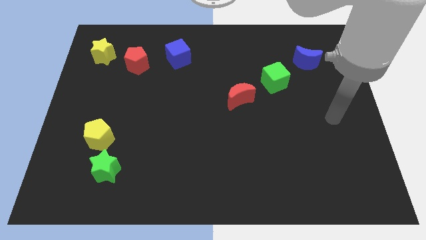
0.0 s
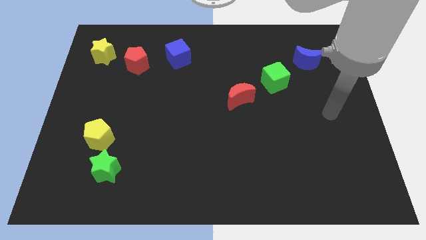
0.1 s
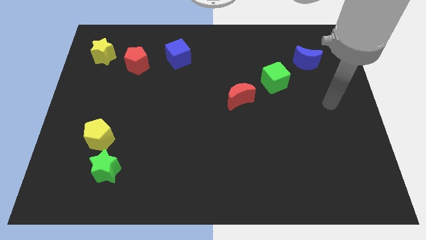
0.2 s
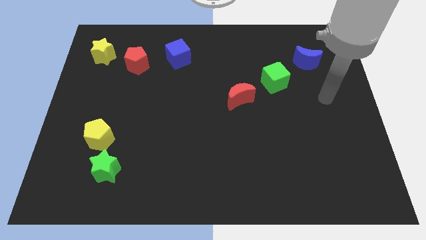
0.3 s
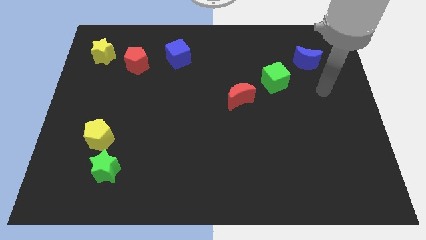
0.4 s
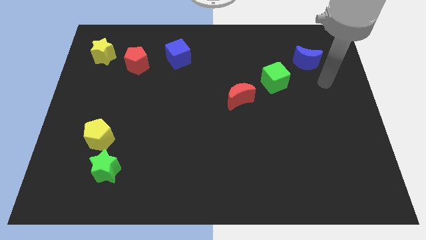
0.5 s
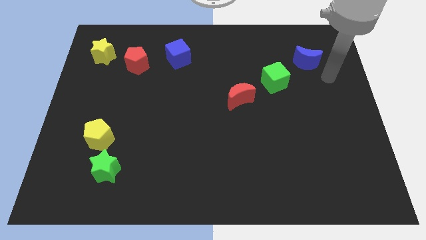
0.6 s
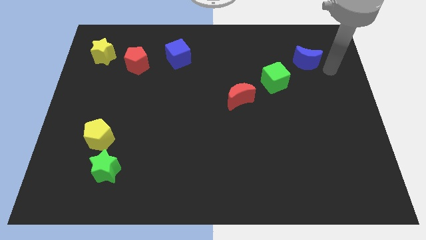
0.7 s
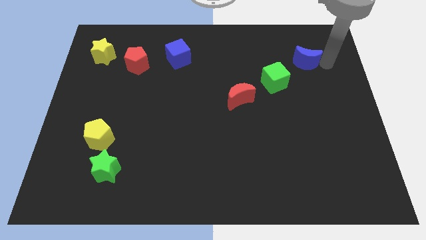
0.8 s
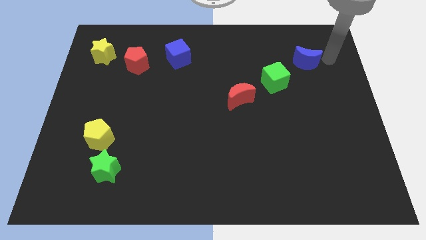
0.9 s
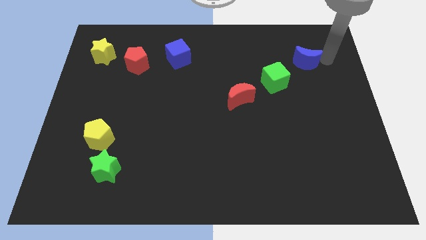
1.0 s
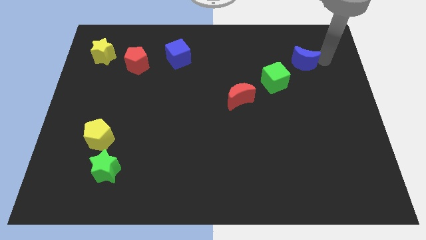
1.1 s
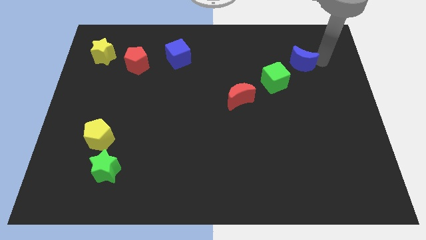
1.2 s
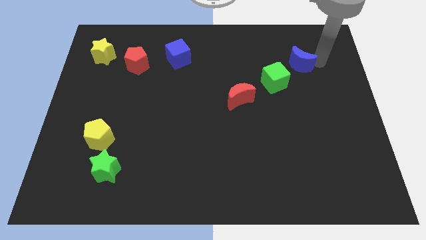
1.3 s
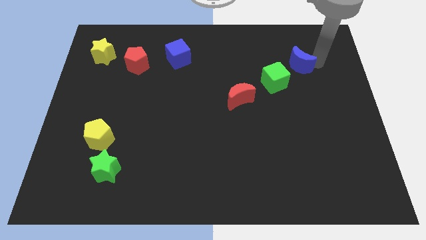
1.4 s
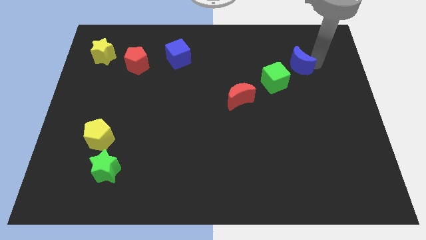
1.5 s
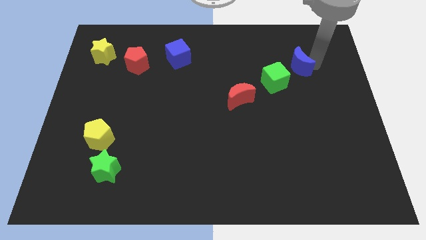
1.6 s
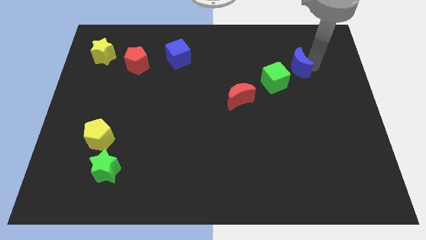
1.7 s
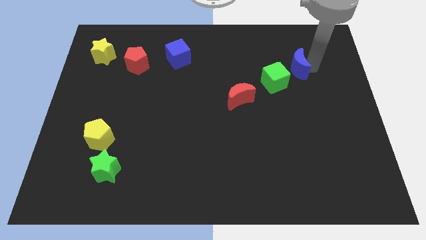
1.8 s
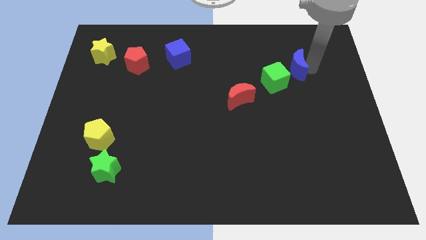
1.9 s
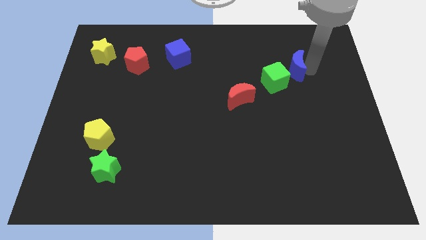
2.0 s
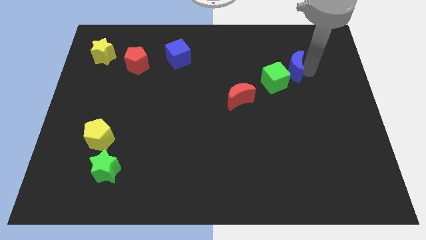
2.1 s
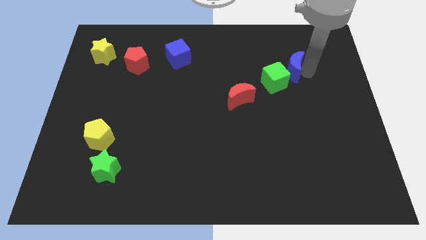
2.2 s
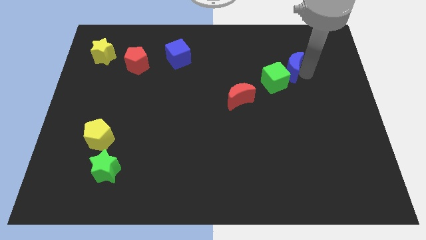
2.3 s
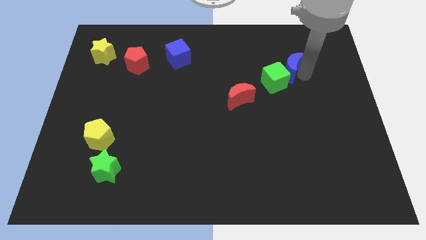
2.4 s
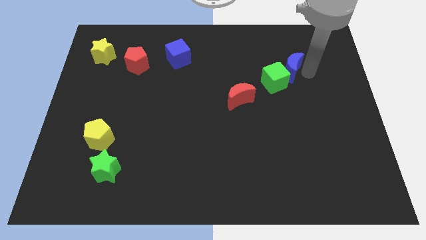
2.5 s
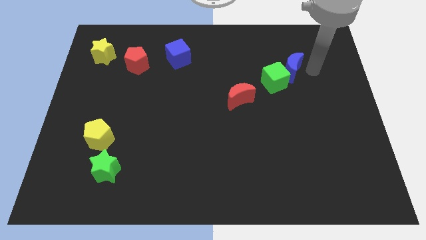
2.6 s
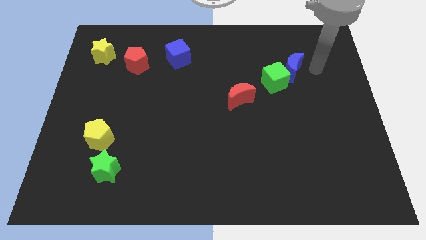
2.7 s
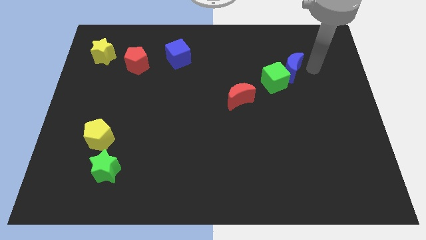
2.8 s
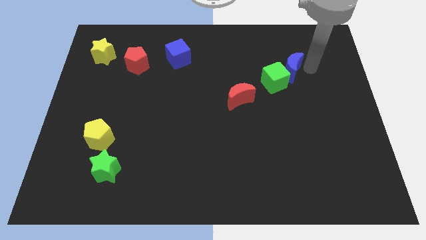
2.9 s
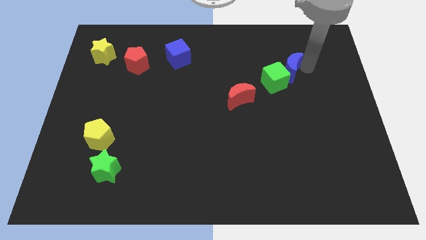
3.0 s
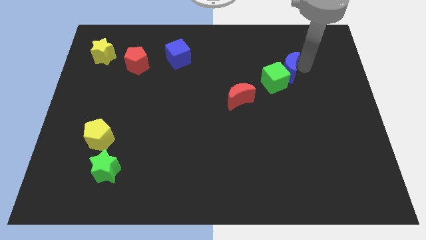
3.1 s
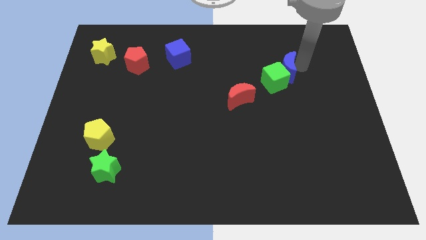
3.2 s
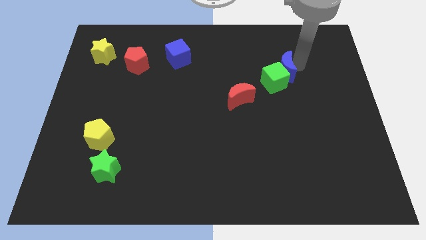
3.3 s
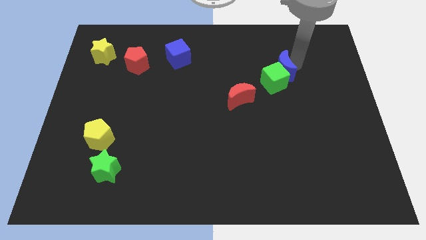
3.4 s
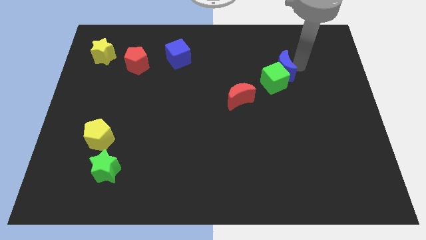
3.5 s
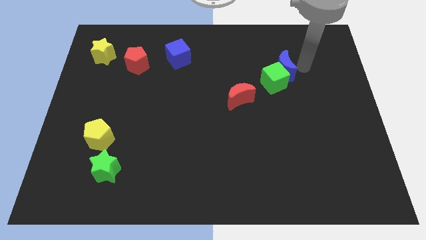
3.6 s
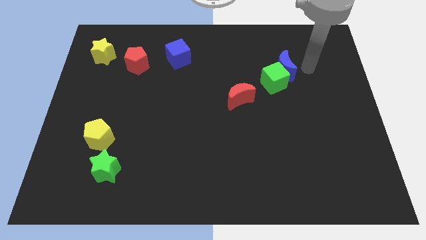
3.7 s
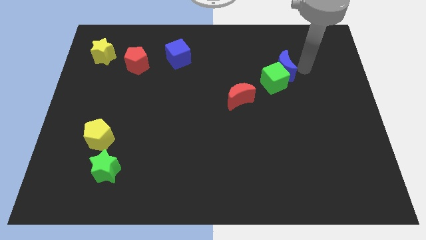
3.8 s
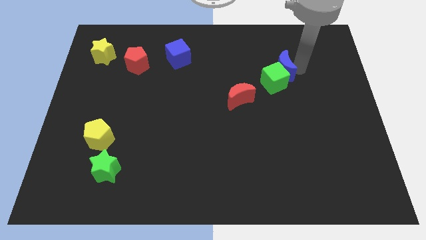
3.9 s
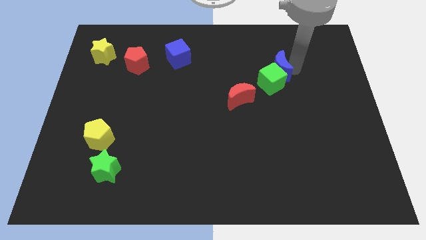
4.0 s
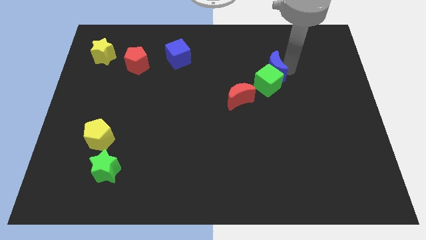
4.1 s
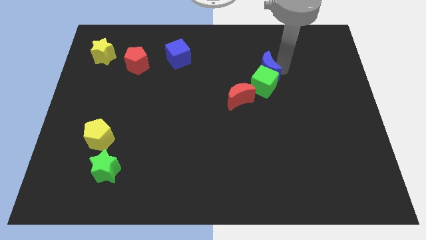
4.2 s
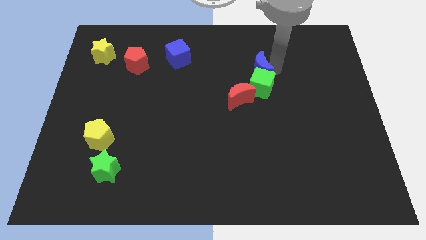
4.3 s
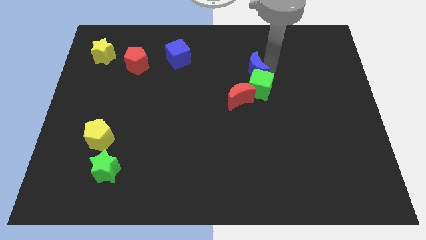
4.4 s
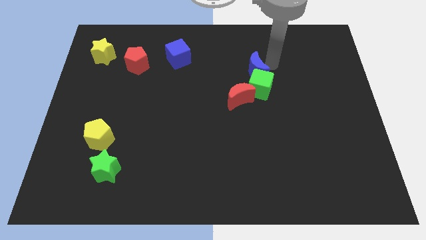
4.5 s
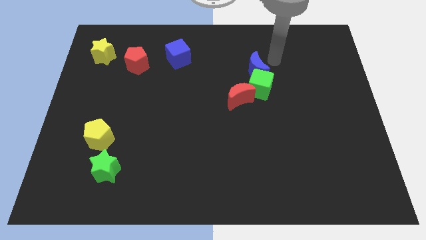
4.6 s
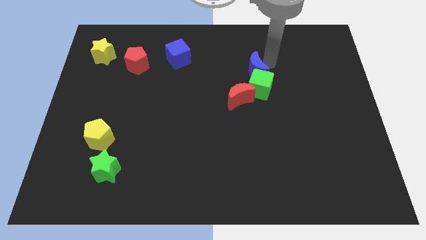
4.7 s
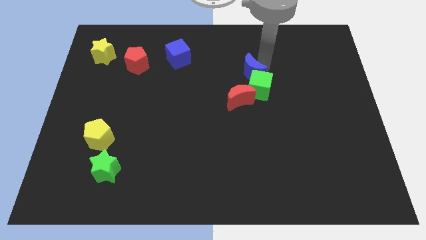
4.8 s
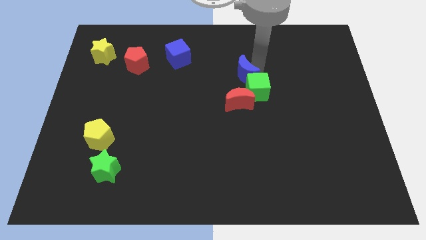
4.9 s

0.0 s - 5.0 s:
move the blue moon to the middle

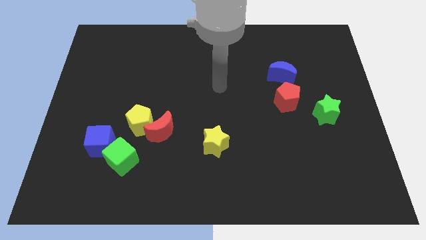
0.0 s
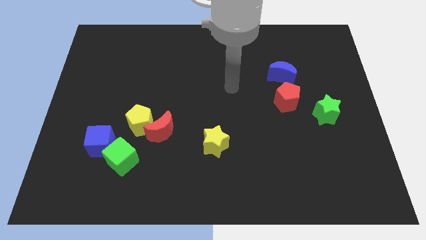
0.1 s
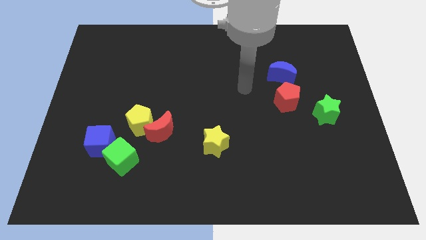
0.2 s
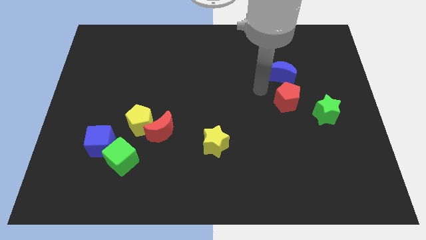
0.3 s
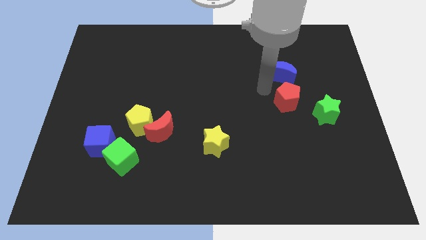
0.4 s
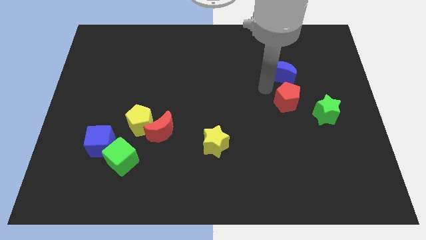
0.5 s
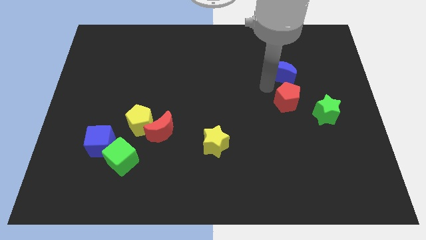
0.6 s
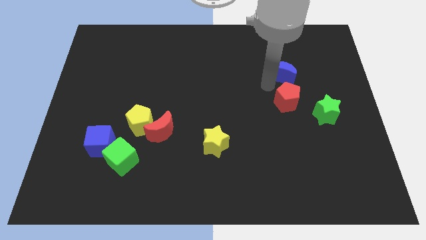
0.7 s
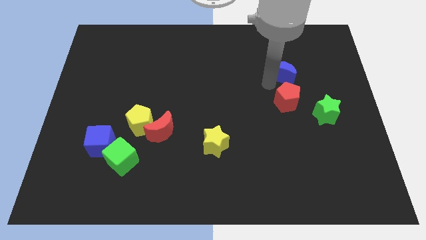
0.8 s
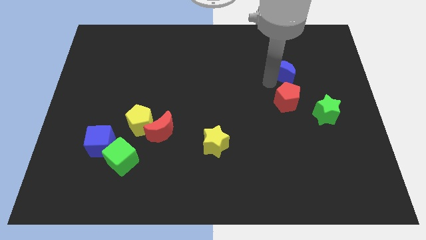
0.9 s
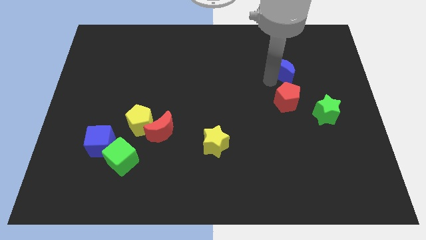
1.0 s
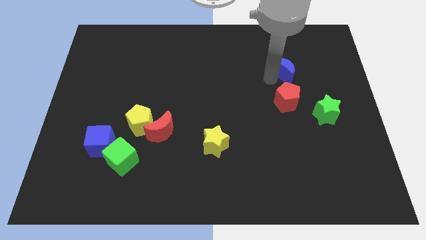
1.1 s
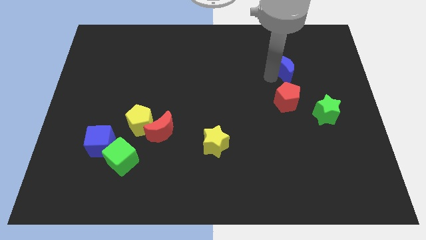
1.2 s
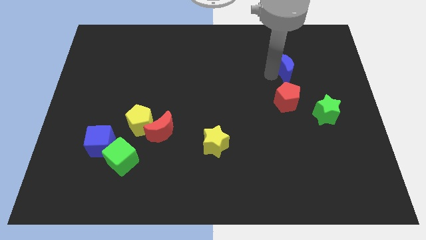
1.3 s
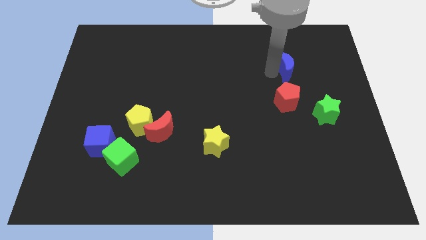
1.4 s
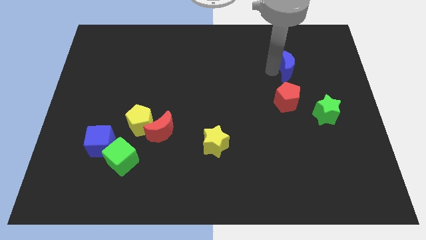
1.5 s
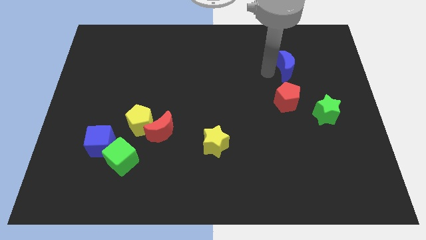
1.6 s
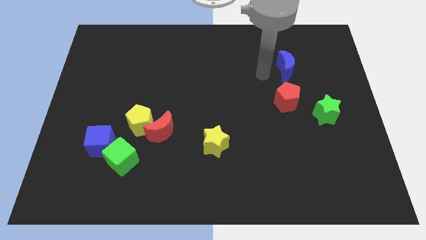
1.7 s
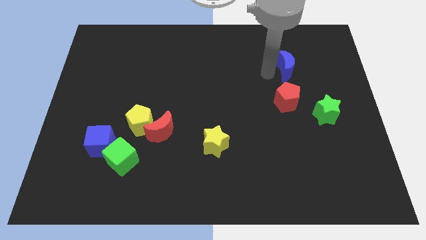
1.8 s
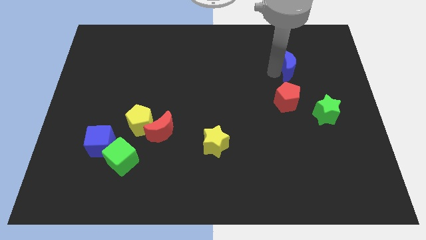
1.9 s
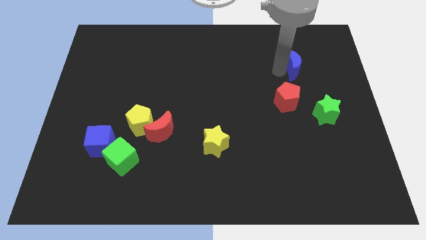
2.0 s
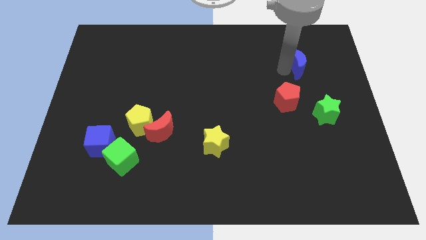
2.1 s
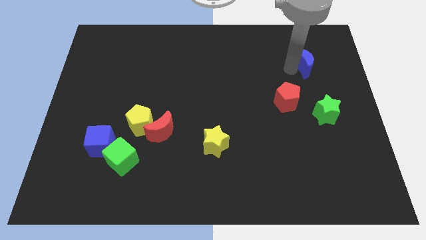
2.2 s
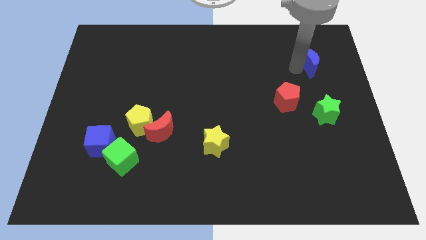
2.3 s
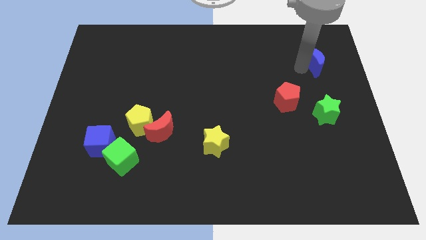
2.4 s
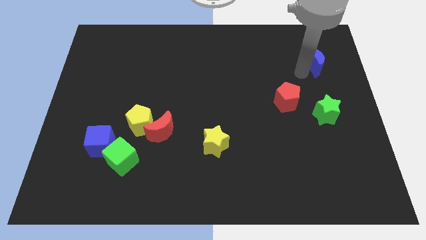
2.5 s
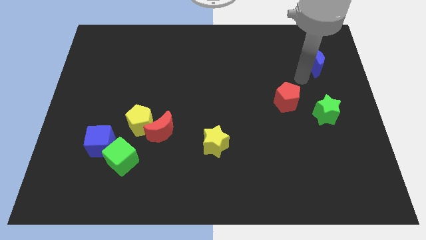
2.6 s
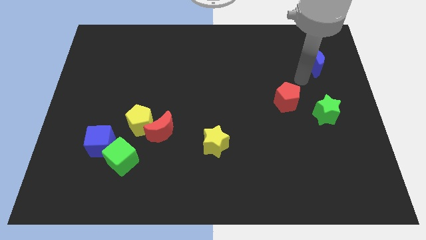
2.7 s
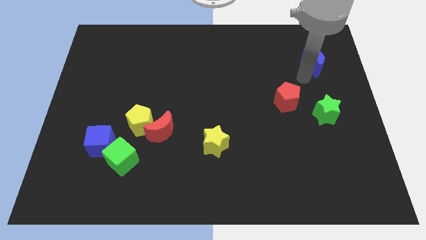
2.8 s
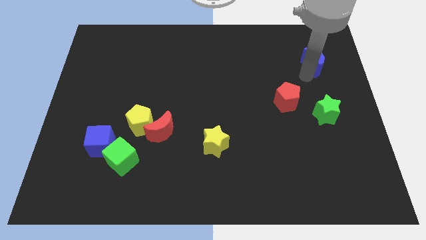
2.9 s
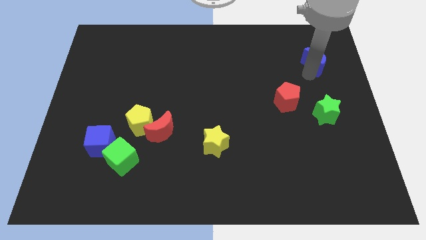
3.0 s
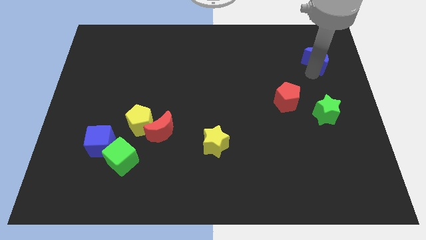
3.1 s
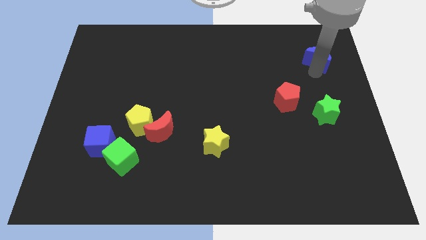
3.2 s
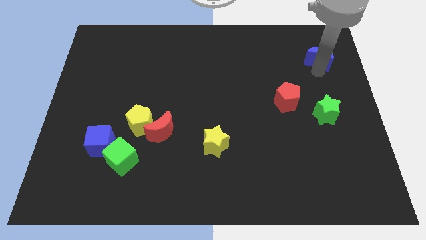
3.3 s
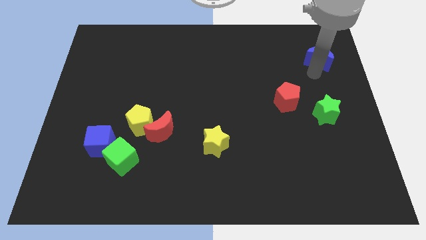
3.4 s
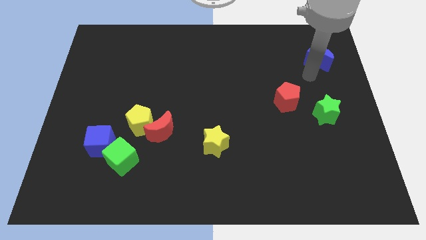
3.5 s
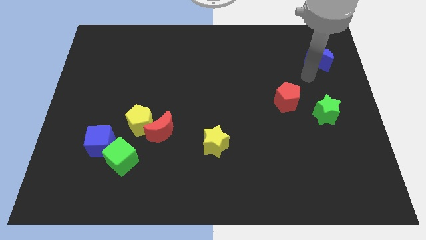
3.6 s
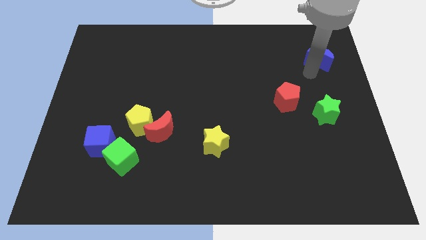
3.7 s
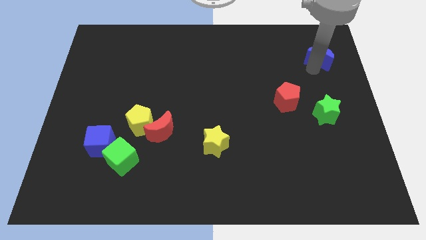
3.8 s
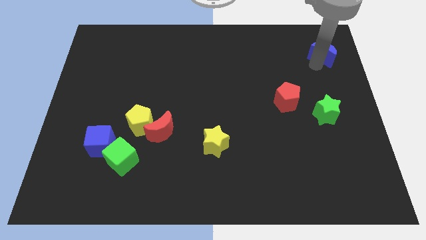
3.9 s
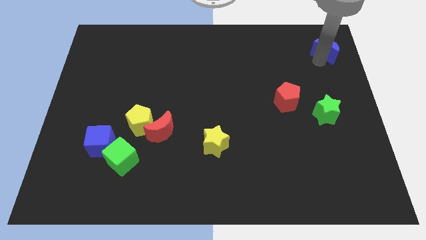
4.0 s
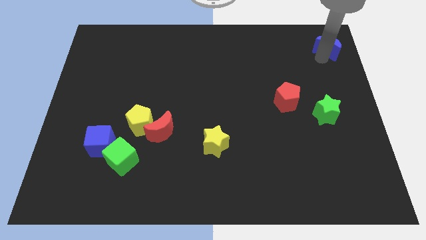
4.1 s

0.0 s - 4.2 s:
push the blue moon to the upper right corner
